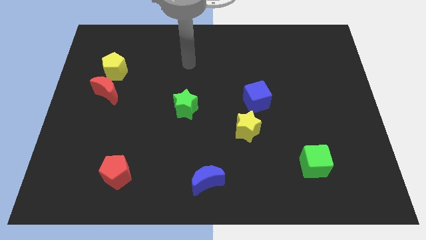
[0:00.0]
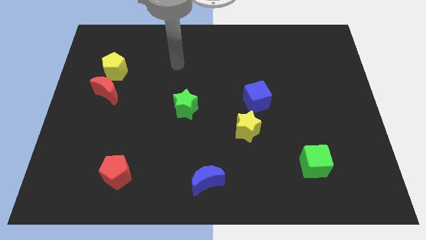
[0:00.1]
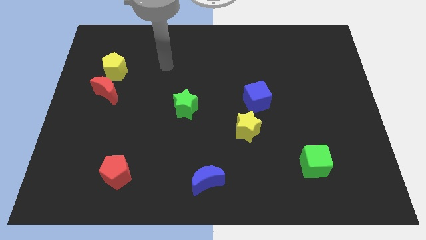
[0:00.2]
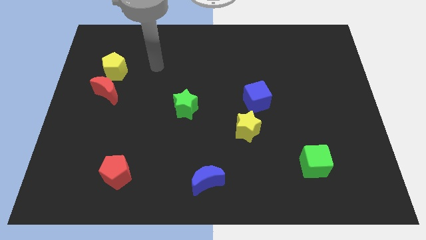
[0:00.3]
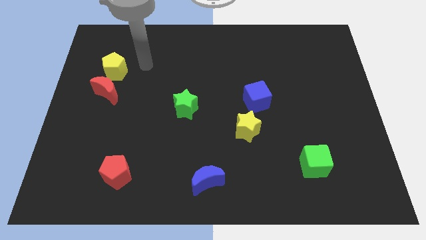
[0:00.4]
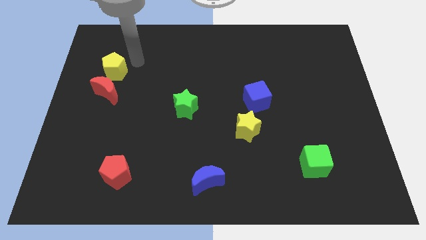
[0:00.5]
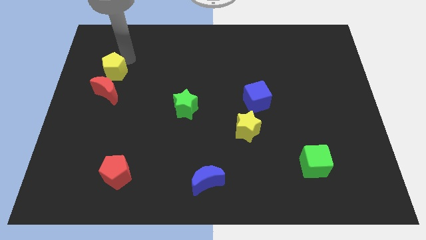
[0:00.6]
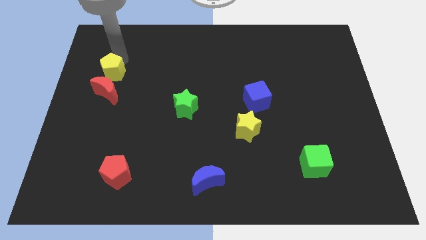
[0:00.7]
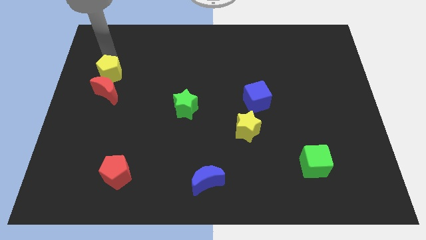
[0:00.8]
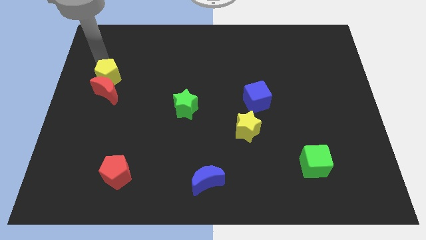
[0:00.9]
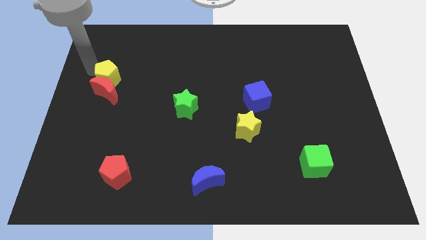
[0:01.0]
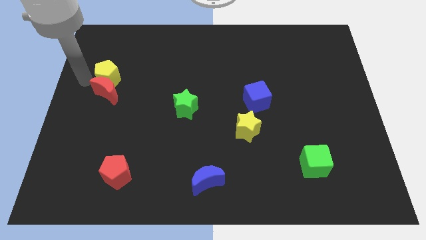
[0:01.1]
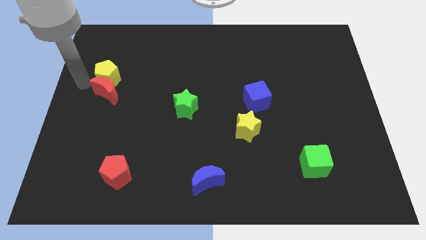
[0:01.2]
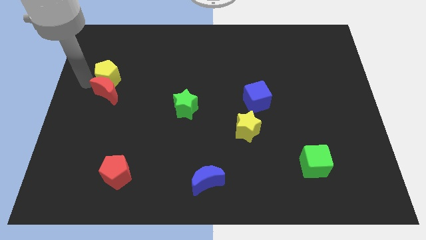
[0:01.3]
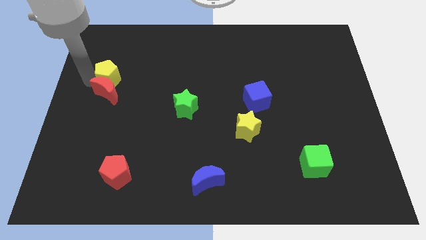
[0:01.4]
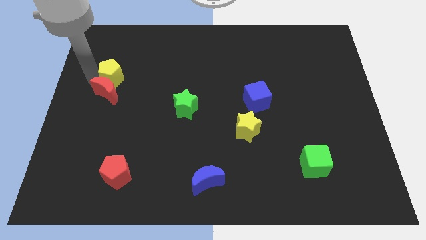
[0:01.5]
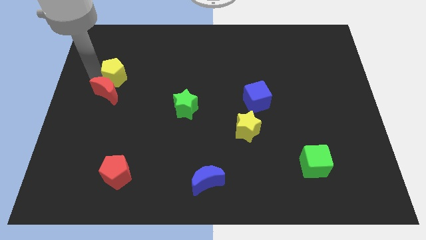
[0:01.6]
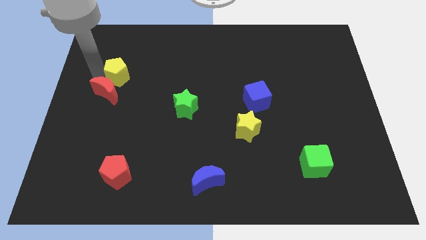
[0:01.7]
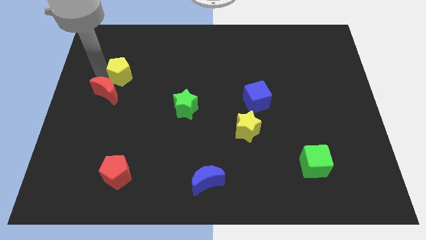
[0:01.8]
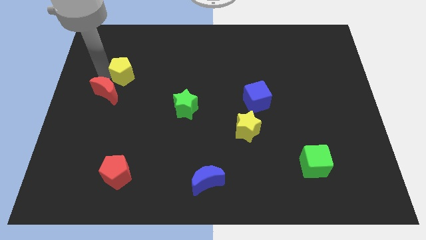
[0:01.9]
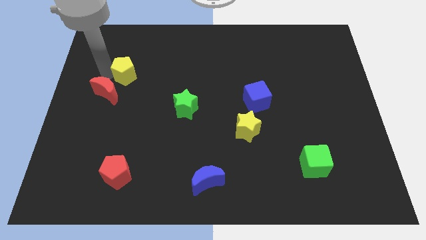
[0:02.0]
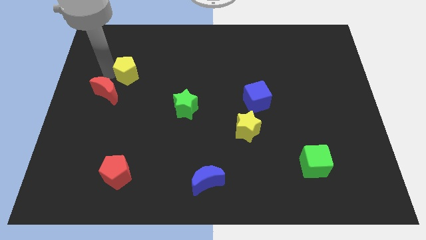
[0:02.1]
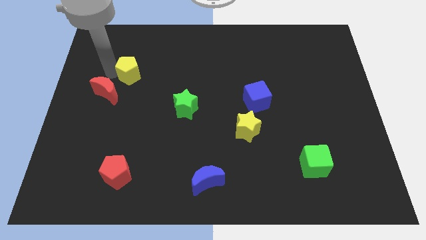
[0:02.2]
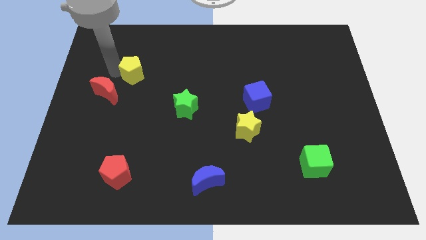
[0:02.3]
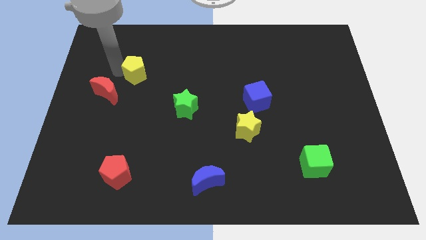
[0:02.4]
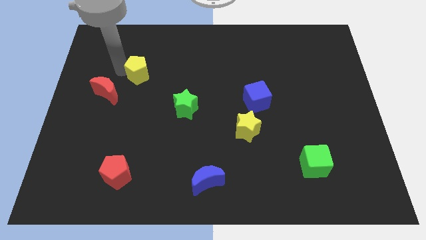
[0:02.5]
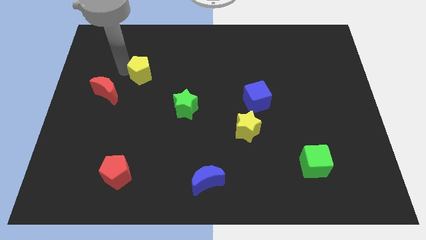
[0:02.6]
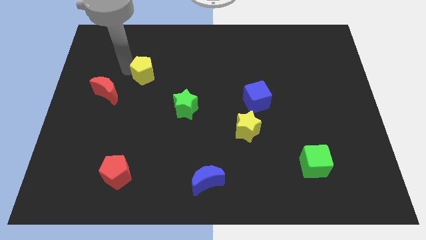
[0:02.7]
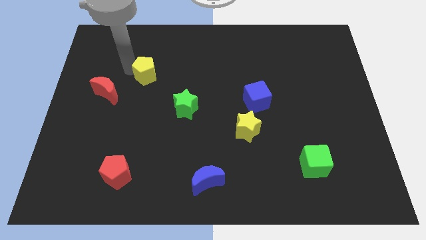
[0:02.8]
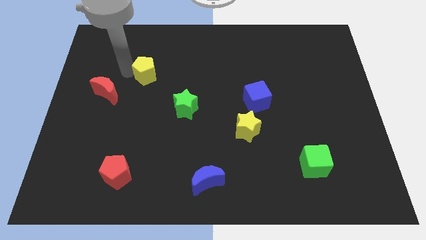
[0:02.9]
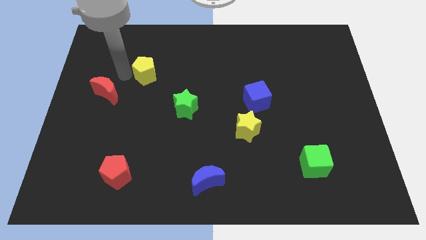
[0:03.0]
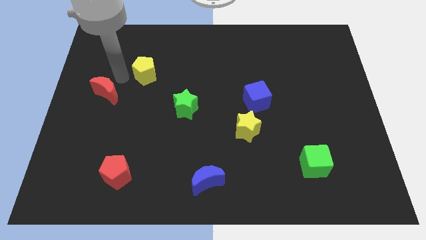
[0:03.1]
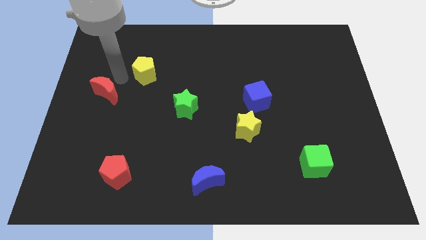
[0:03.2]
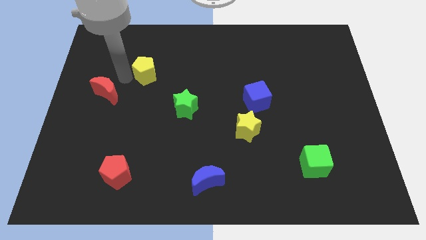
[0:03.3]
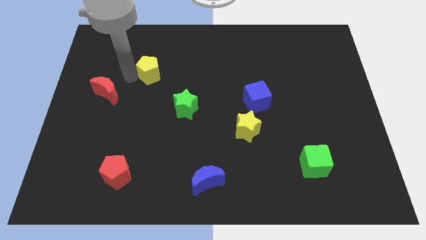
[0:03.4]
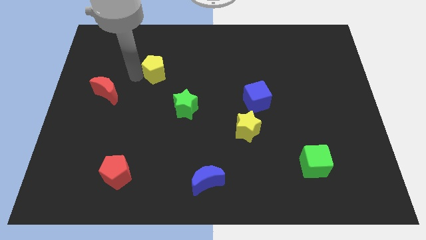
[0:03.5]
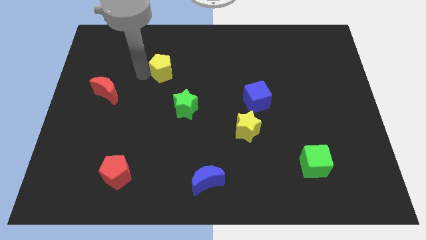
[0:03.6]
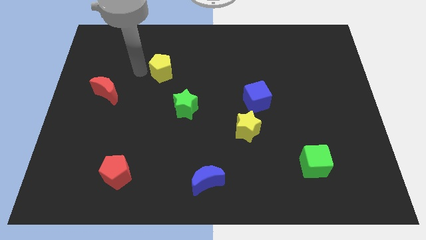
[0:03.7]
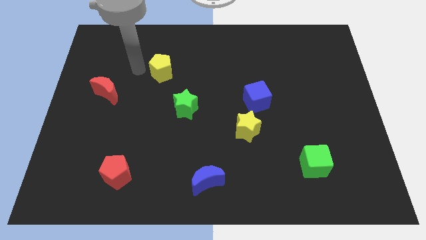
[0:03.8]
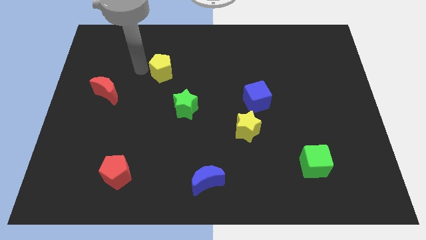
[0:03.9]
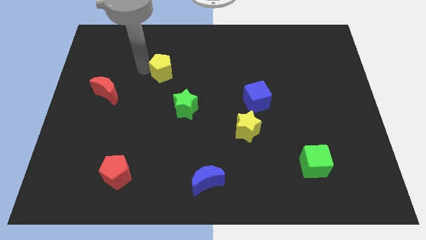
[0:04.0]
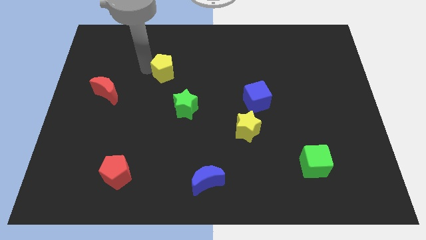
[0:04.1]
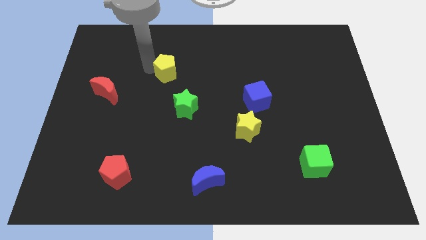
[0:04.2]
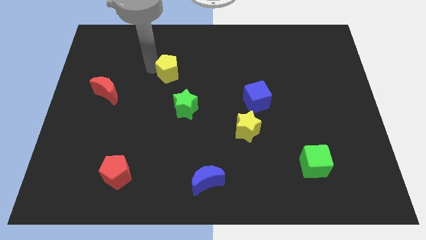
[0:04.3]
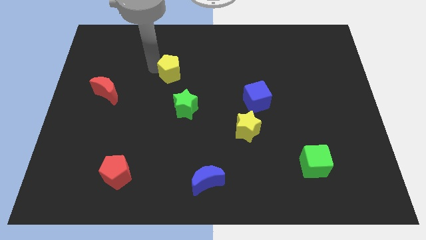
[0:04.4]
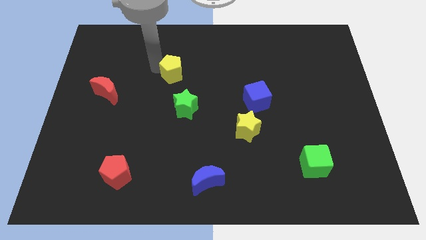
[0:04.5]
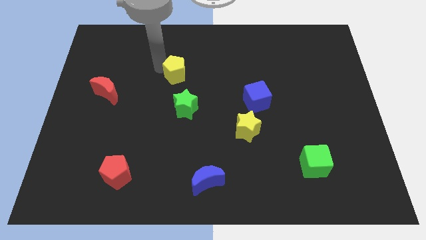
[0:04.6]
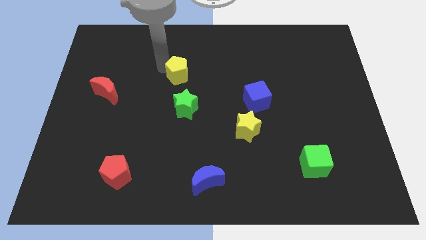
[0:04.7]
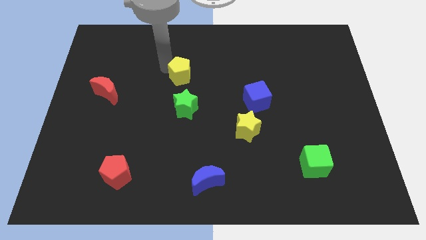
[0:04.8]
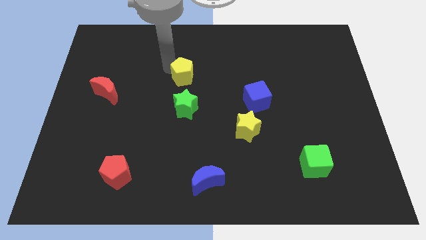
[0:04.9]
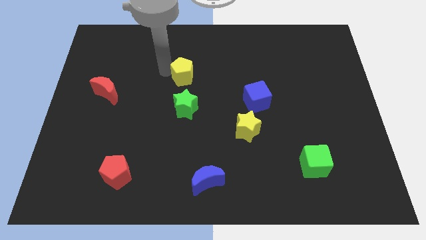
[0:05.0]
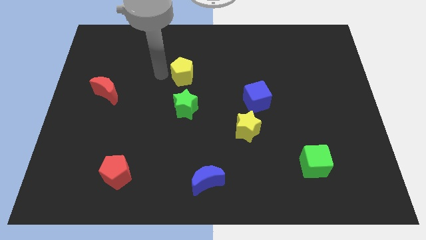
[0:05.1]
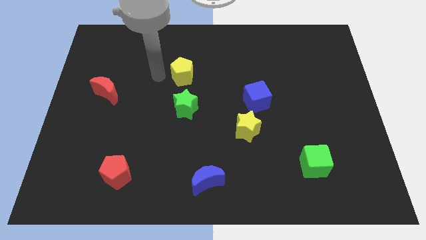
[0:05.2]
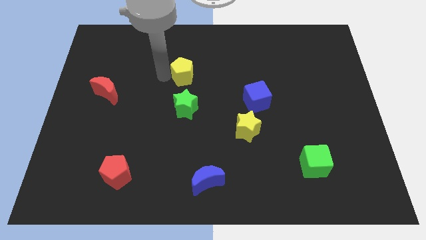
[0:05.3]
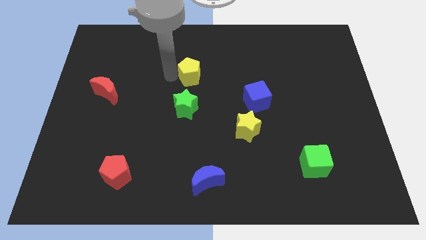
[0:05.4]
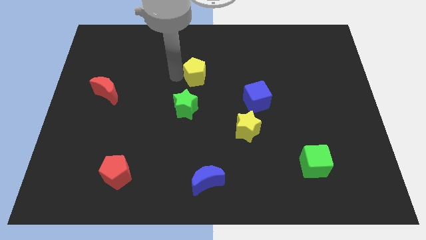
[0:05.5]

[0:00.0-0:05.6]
move the yellow pentagon to the right

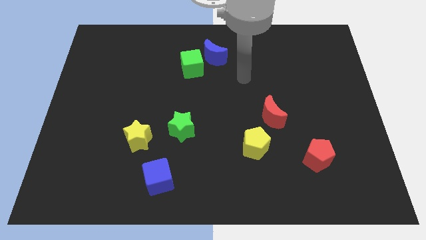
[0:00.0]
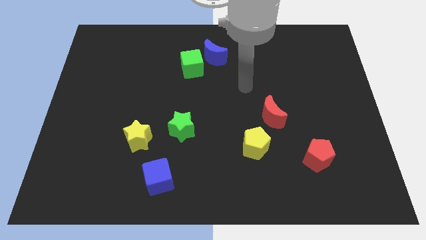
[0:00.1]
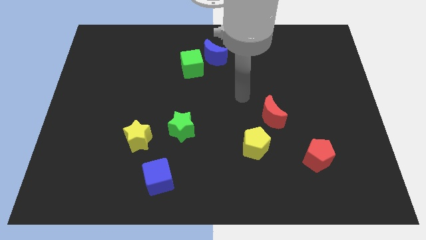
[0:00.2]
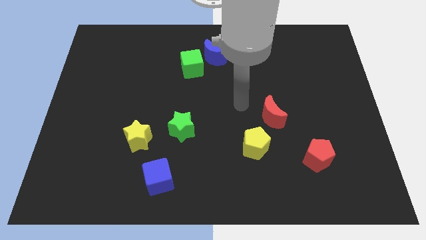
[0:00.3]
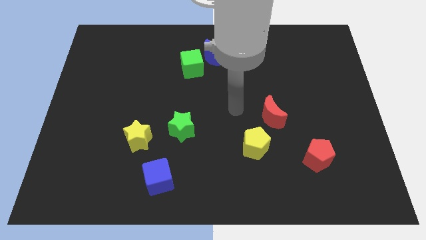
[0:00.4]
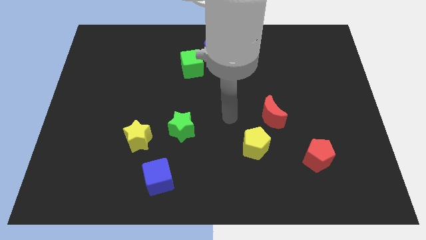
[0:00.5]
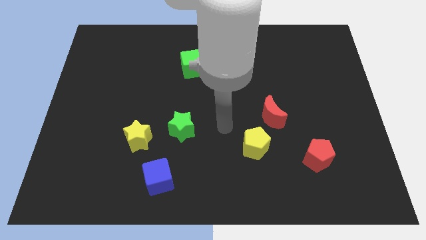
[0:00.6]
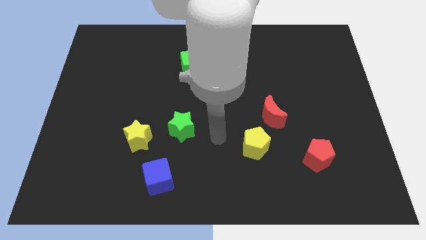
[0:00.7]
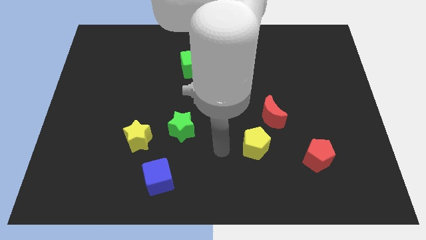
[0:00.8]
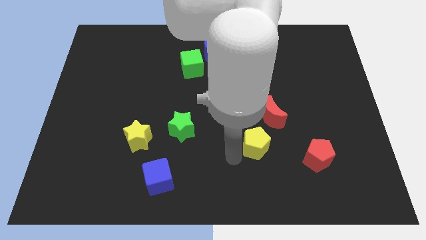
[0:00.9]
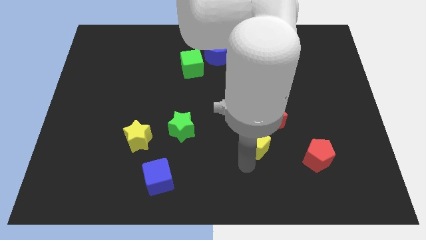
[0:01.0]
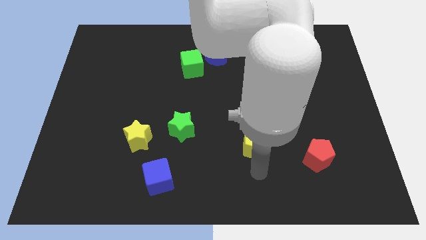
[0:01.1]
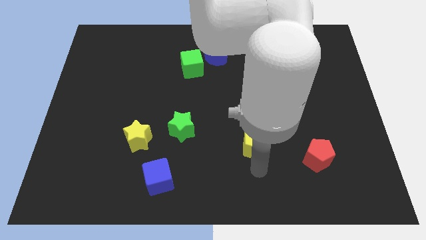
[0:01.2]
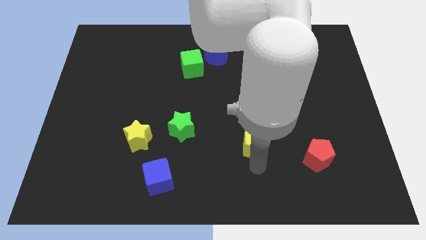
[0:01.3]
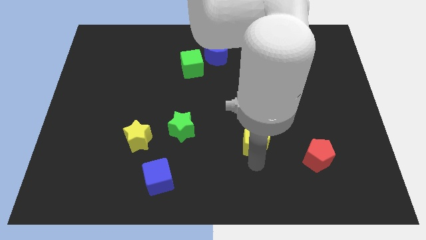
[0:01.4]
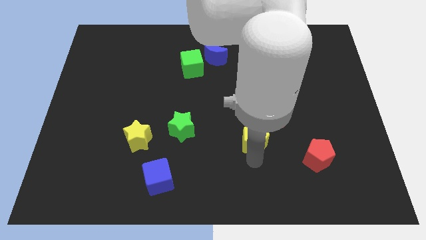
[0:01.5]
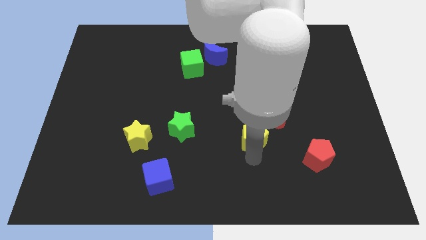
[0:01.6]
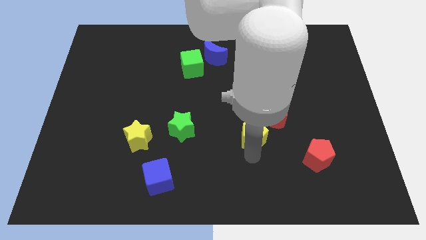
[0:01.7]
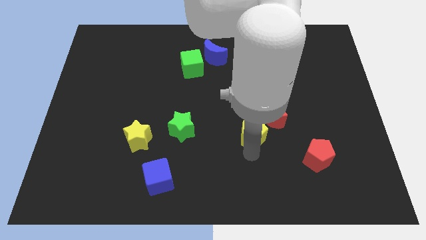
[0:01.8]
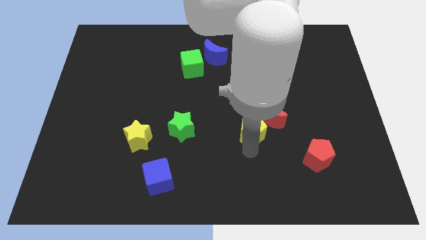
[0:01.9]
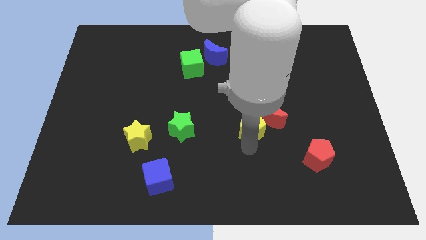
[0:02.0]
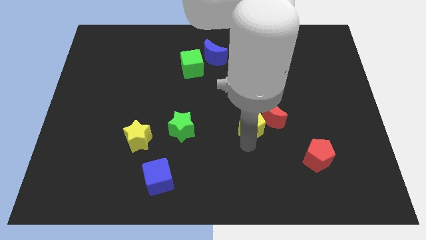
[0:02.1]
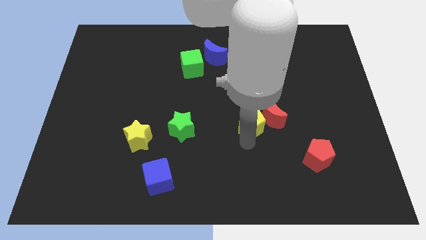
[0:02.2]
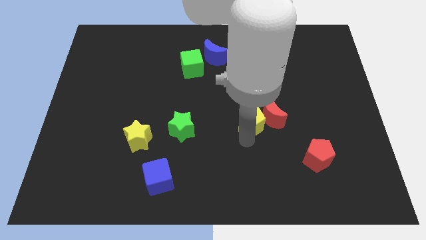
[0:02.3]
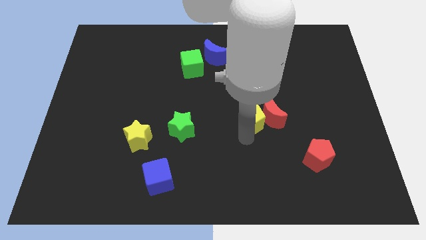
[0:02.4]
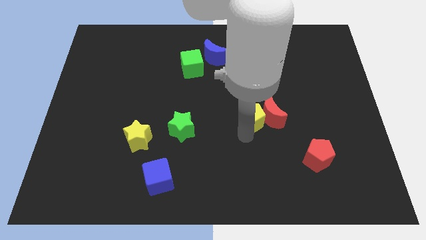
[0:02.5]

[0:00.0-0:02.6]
slide the yellow pentagon a little bit upwards
